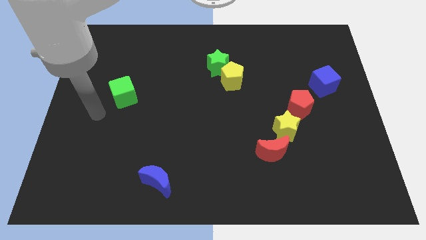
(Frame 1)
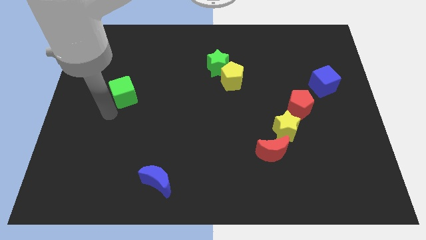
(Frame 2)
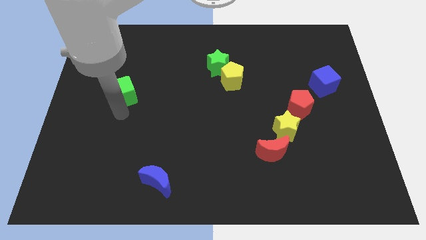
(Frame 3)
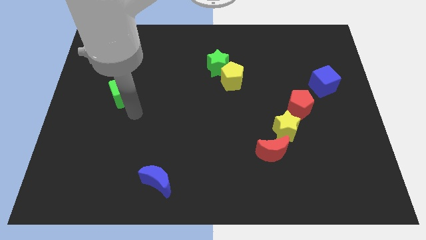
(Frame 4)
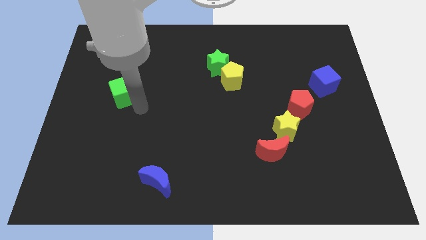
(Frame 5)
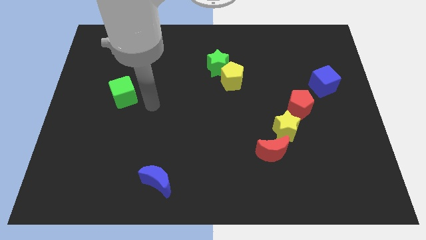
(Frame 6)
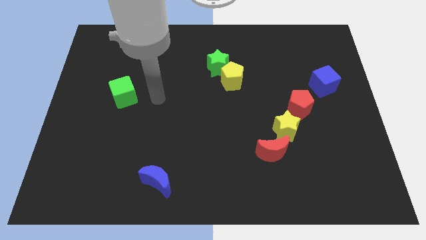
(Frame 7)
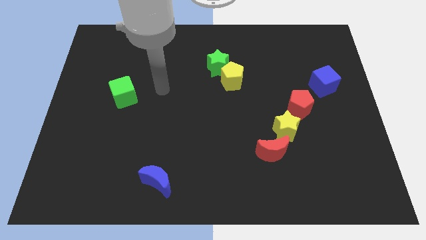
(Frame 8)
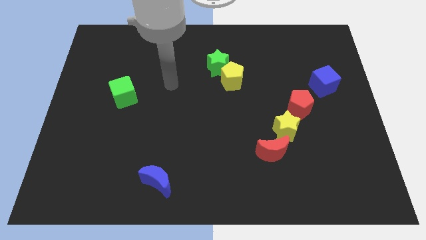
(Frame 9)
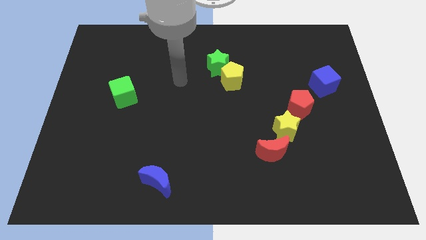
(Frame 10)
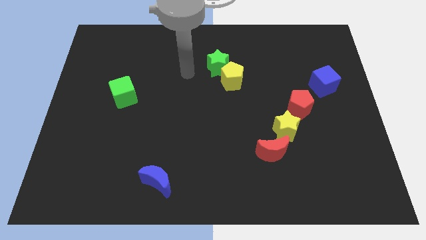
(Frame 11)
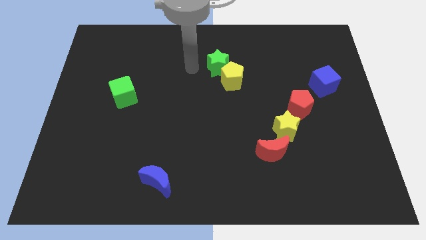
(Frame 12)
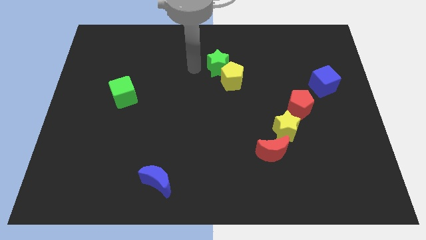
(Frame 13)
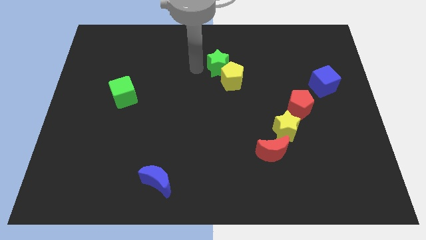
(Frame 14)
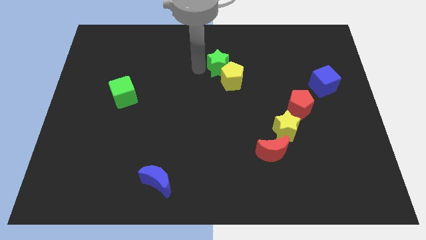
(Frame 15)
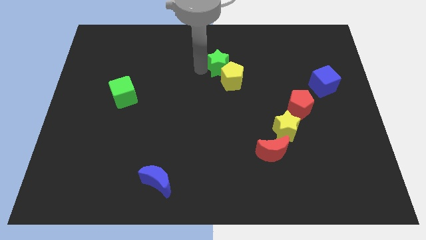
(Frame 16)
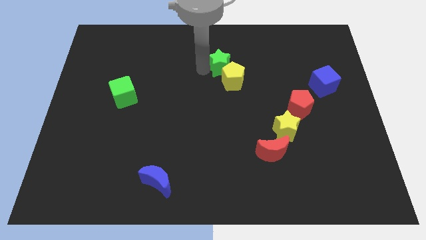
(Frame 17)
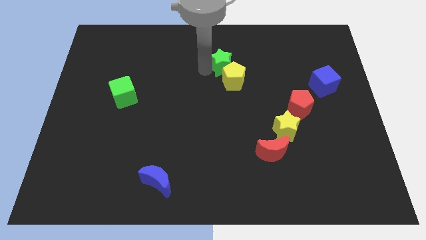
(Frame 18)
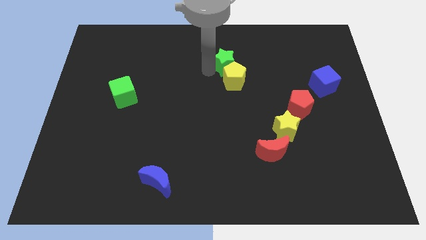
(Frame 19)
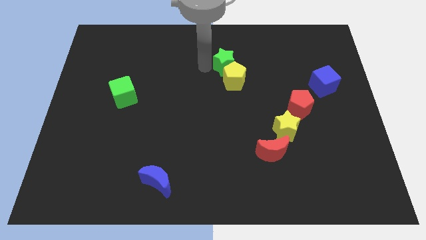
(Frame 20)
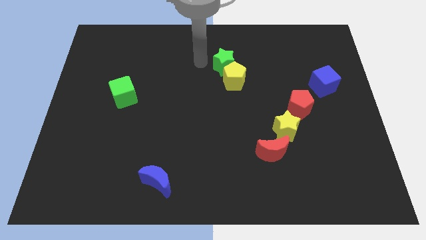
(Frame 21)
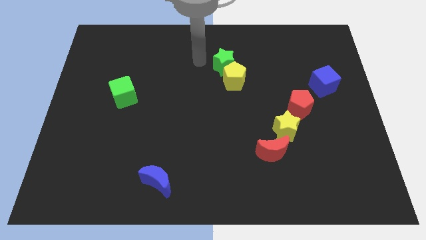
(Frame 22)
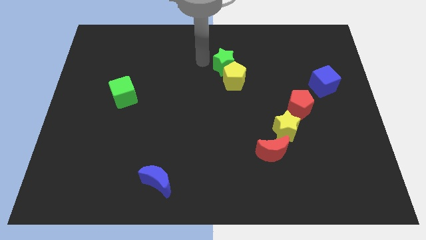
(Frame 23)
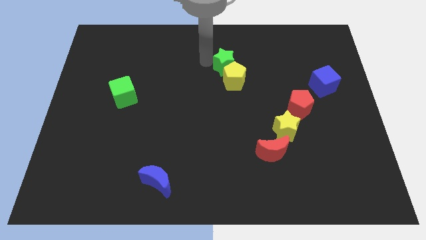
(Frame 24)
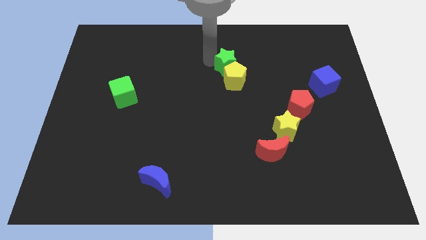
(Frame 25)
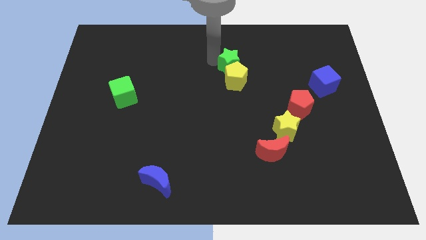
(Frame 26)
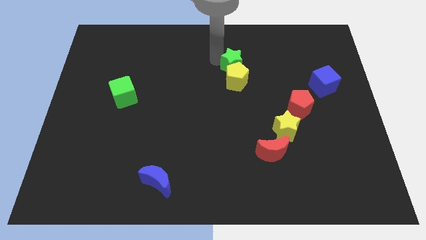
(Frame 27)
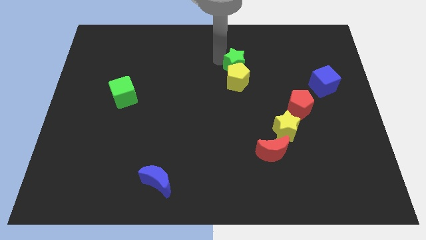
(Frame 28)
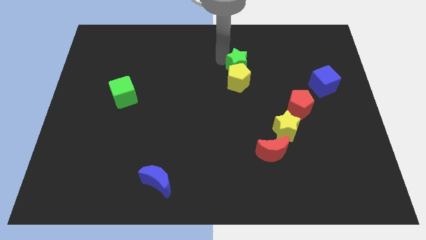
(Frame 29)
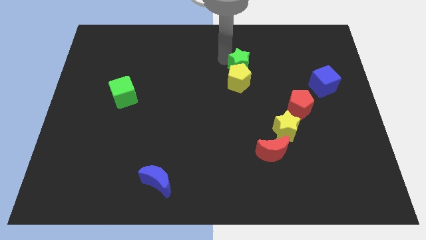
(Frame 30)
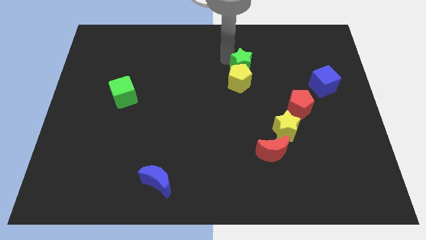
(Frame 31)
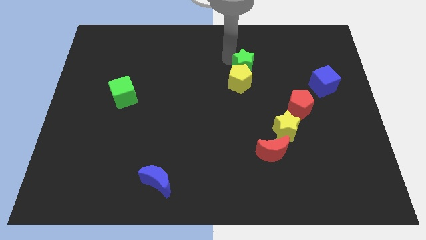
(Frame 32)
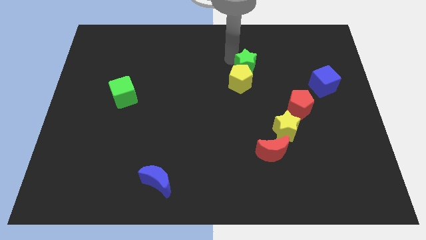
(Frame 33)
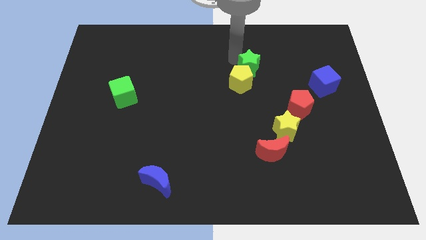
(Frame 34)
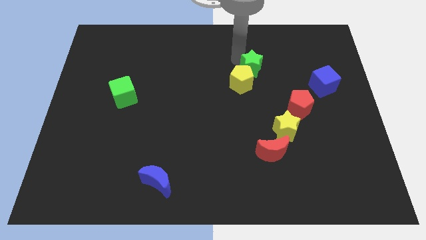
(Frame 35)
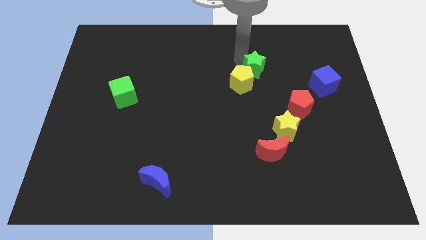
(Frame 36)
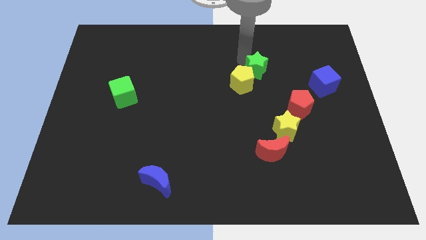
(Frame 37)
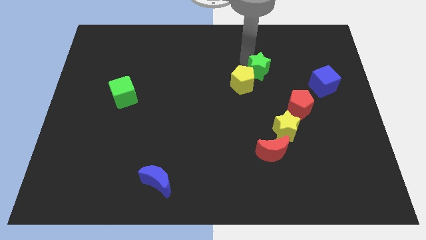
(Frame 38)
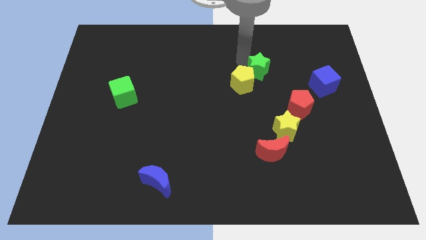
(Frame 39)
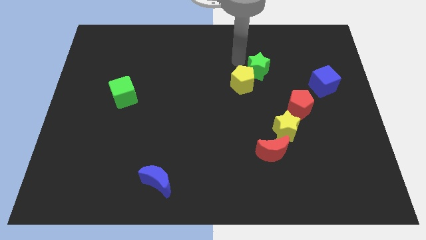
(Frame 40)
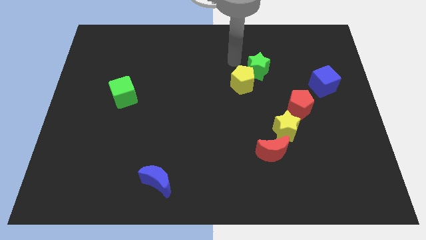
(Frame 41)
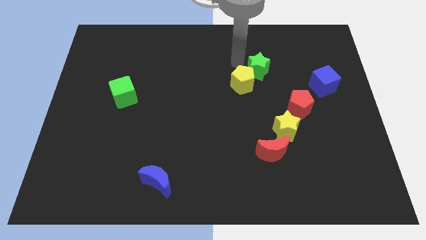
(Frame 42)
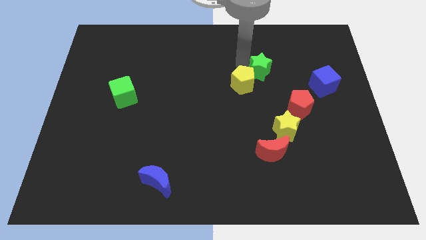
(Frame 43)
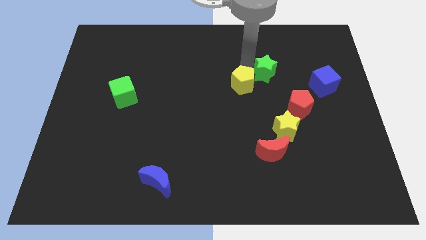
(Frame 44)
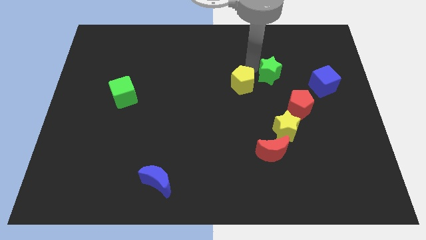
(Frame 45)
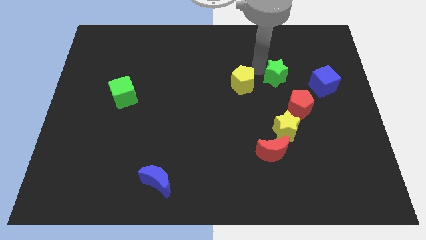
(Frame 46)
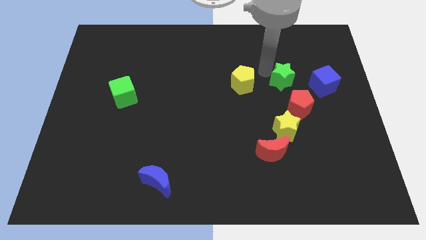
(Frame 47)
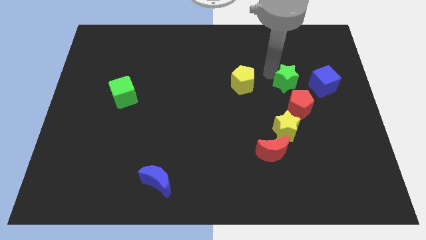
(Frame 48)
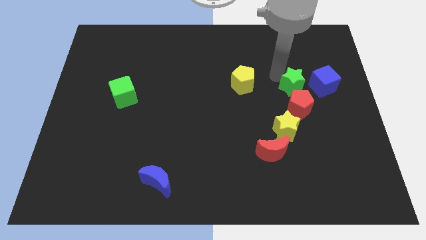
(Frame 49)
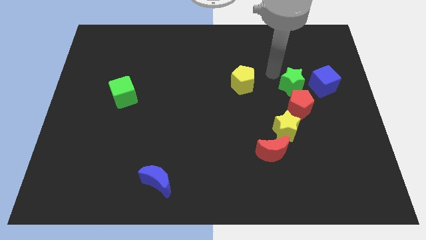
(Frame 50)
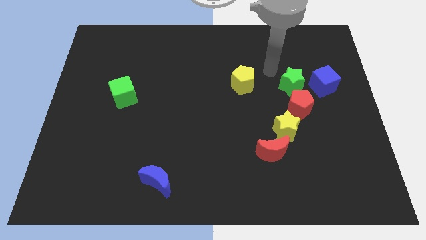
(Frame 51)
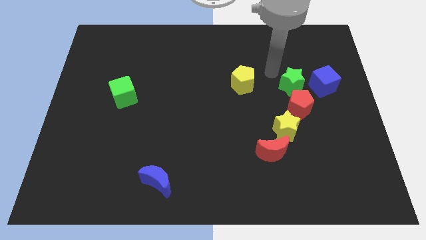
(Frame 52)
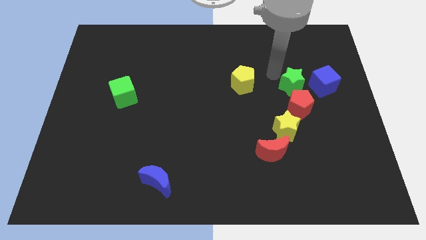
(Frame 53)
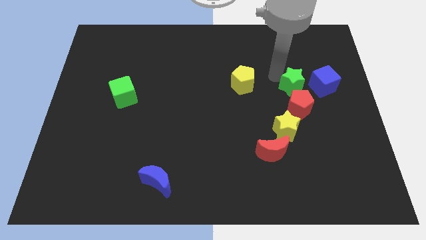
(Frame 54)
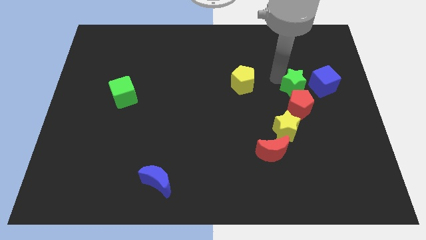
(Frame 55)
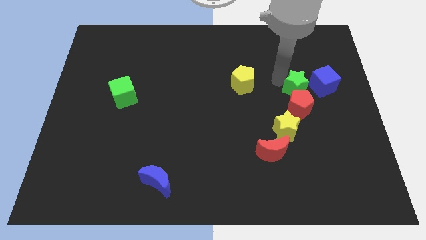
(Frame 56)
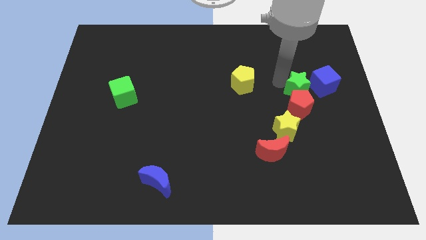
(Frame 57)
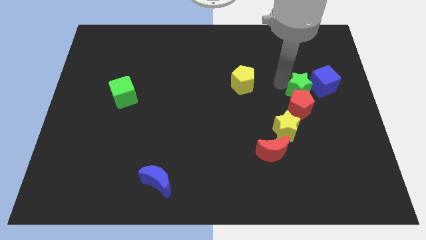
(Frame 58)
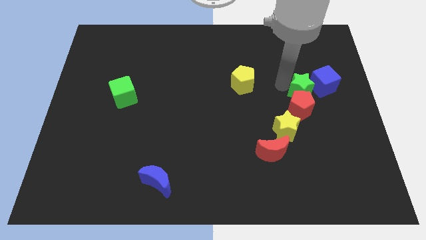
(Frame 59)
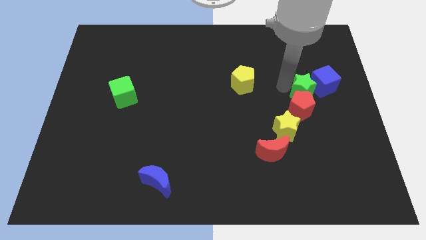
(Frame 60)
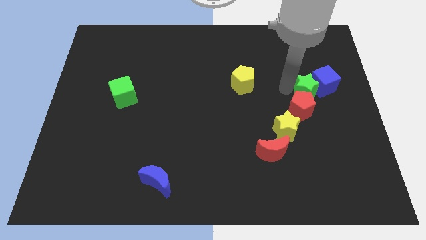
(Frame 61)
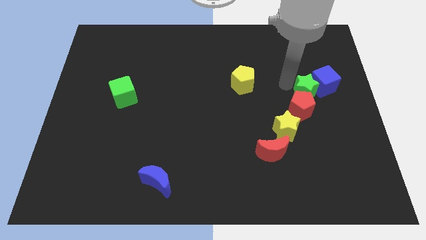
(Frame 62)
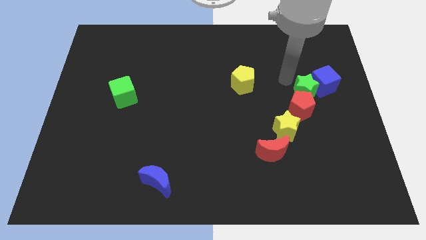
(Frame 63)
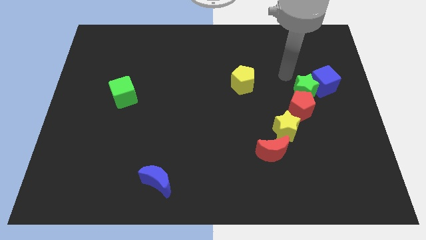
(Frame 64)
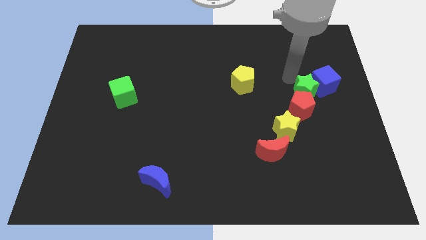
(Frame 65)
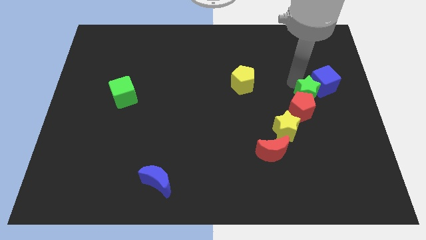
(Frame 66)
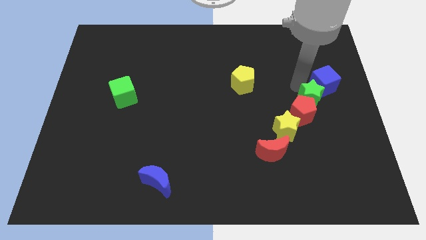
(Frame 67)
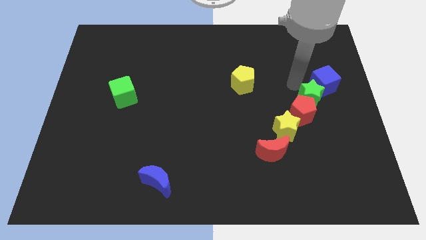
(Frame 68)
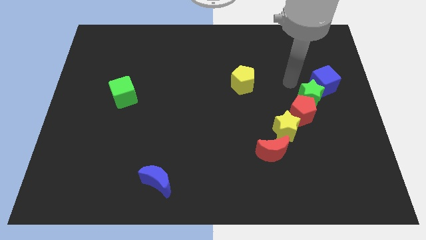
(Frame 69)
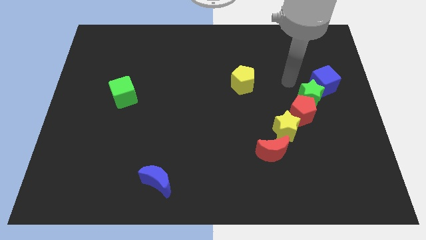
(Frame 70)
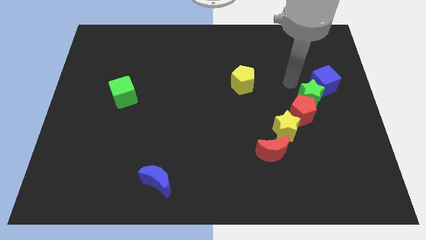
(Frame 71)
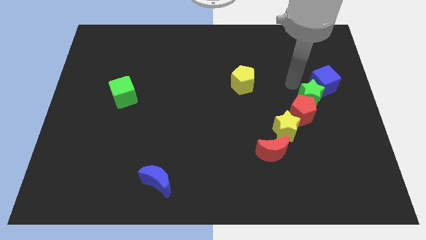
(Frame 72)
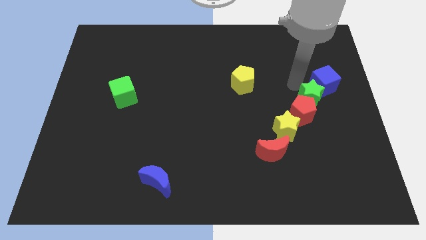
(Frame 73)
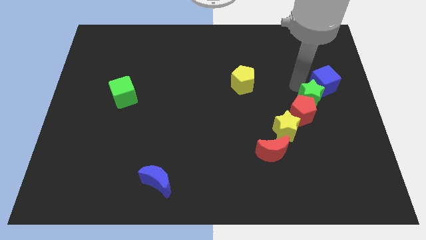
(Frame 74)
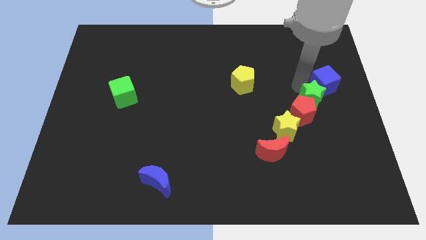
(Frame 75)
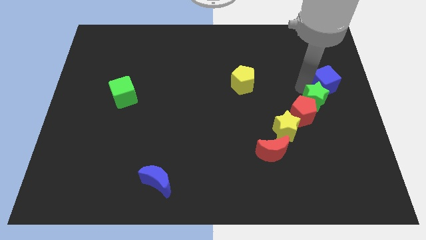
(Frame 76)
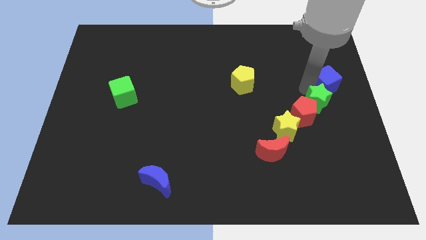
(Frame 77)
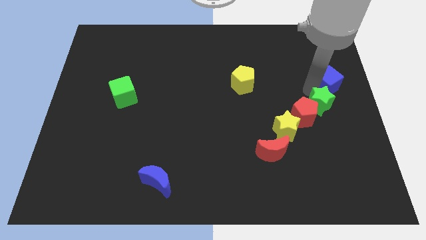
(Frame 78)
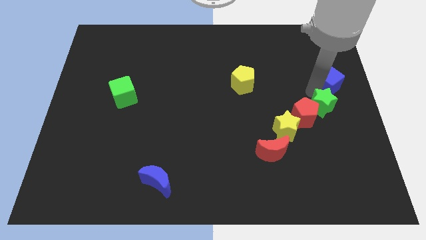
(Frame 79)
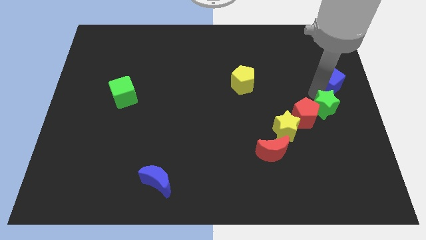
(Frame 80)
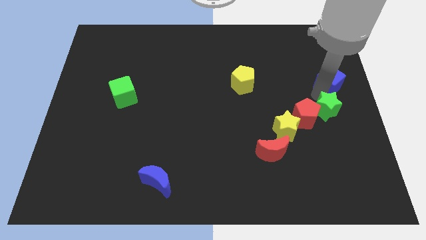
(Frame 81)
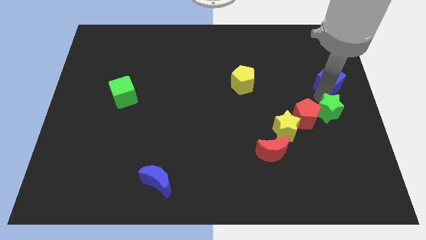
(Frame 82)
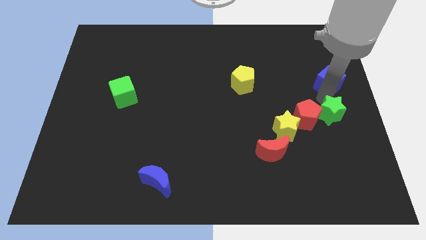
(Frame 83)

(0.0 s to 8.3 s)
push the green star just right of the yellow star
